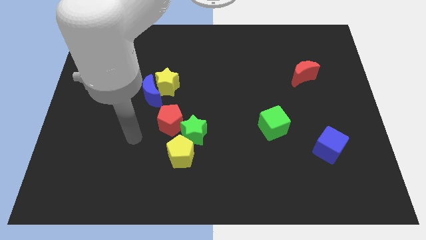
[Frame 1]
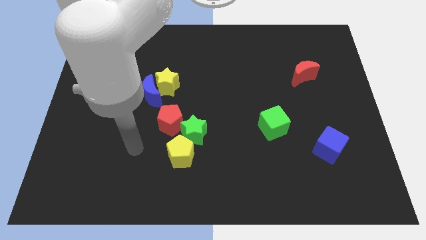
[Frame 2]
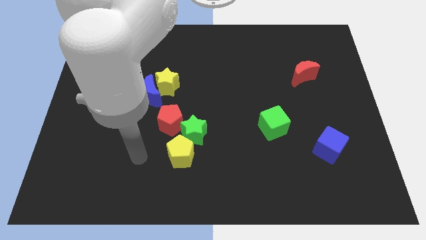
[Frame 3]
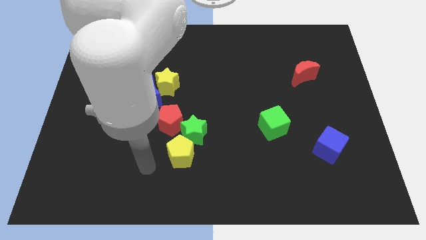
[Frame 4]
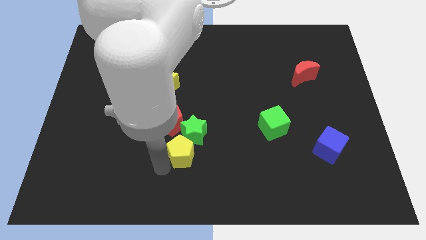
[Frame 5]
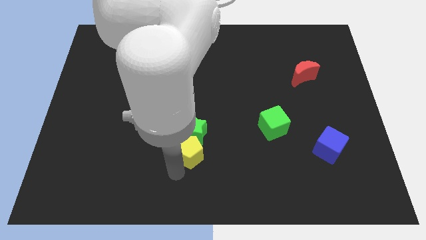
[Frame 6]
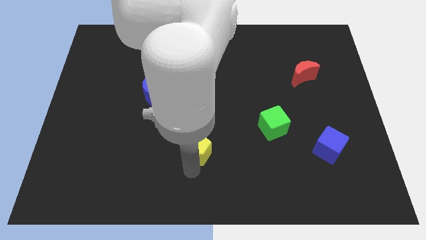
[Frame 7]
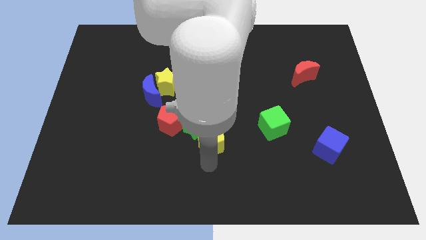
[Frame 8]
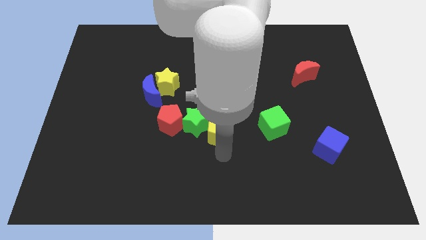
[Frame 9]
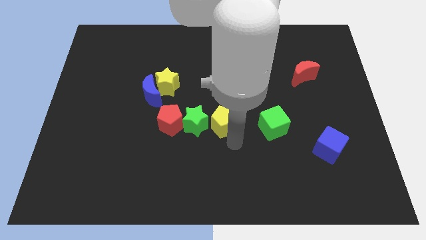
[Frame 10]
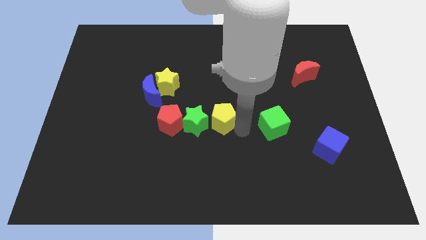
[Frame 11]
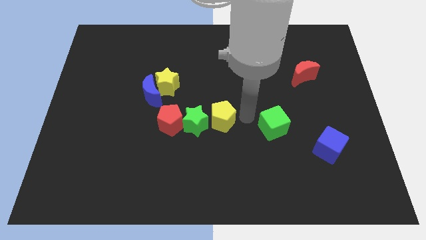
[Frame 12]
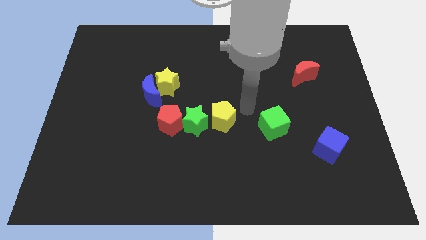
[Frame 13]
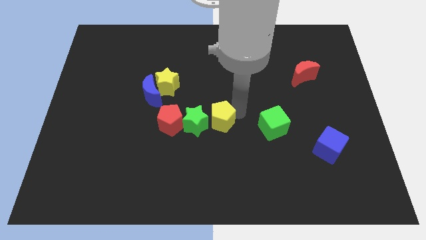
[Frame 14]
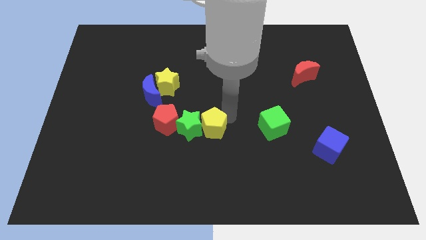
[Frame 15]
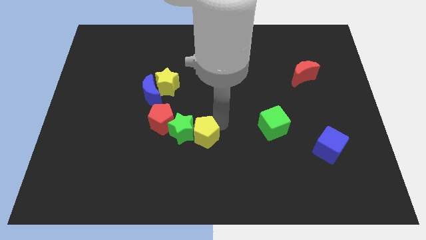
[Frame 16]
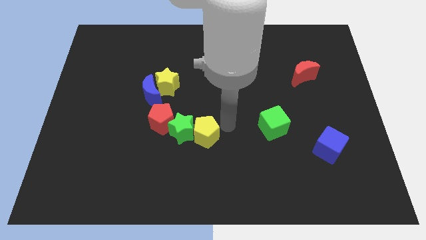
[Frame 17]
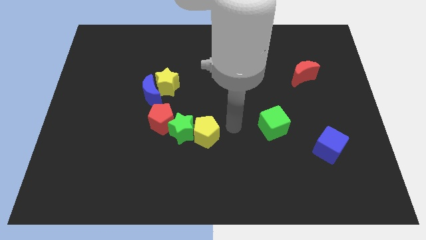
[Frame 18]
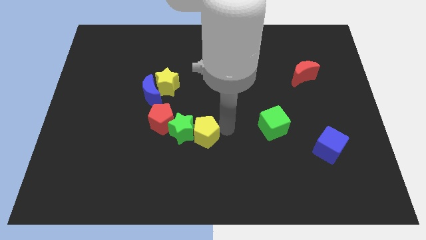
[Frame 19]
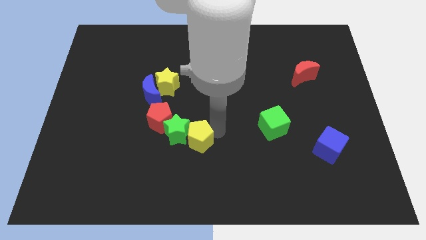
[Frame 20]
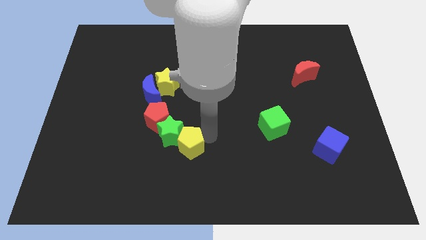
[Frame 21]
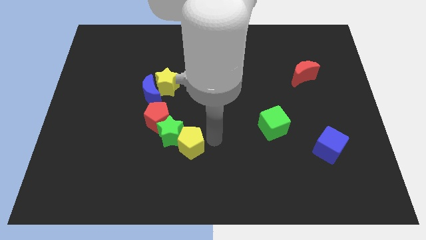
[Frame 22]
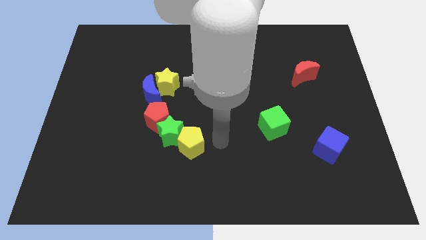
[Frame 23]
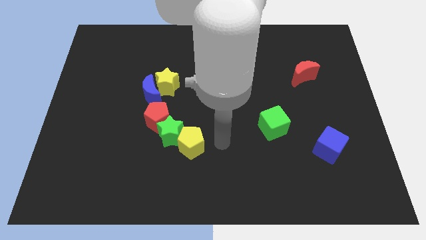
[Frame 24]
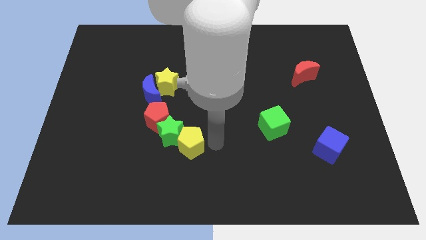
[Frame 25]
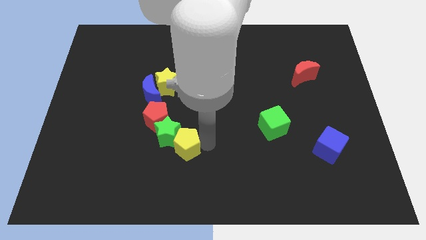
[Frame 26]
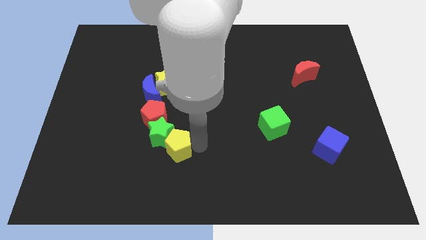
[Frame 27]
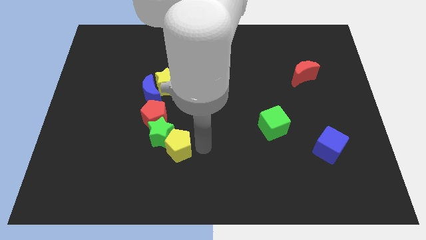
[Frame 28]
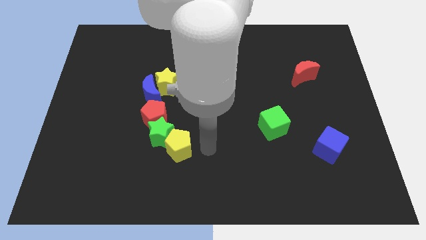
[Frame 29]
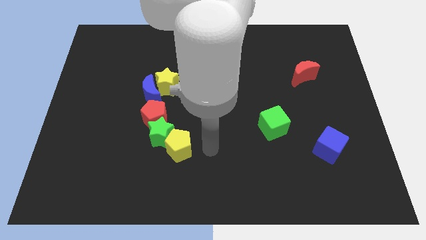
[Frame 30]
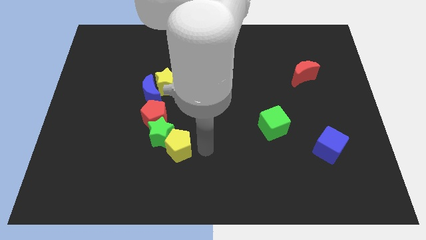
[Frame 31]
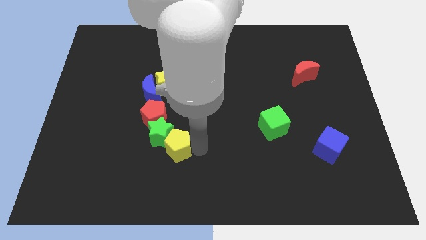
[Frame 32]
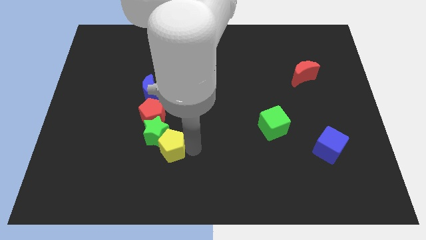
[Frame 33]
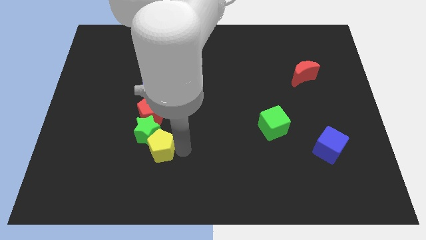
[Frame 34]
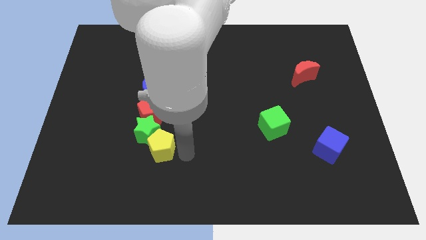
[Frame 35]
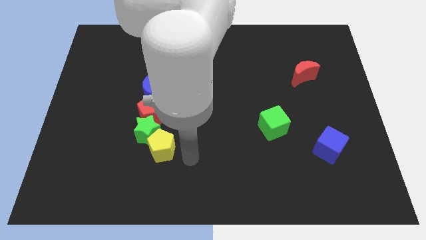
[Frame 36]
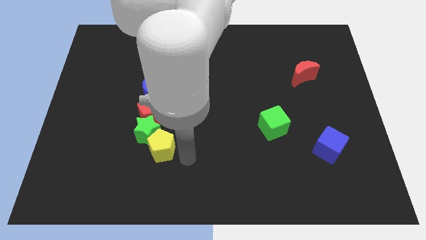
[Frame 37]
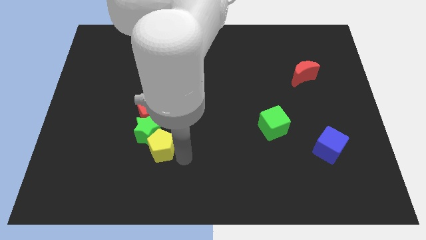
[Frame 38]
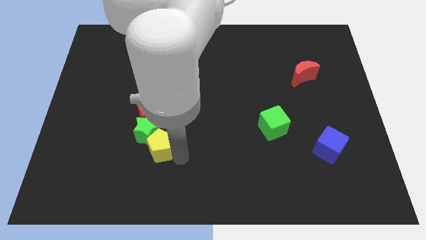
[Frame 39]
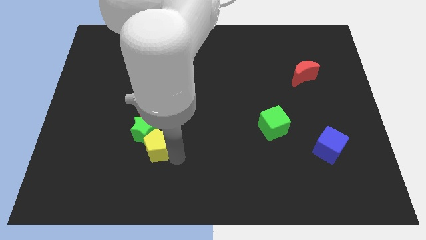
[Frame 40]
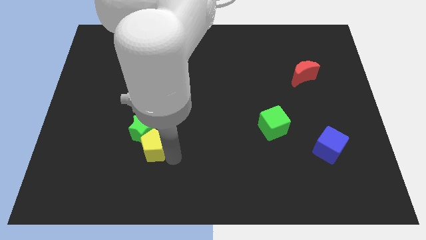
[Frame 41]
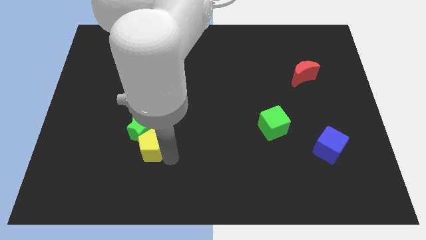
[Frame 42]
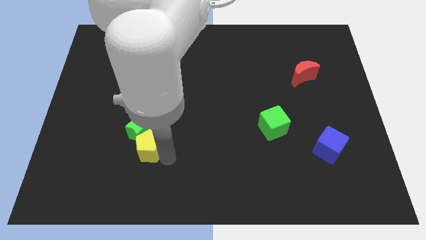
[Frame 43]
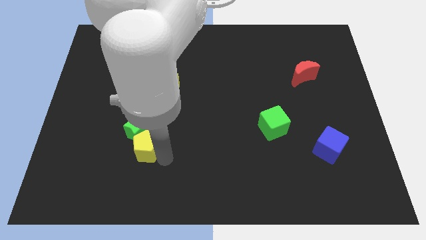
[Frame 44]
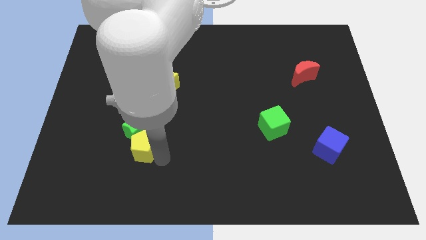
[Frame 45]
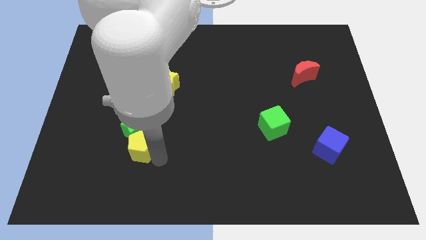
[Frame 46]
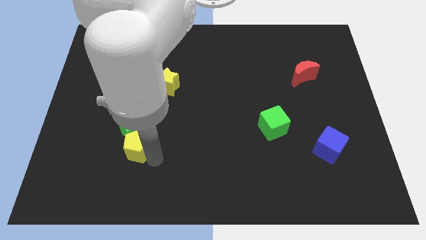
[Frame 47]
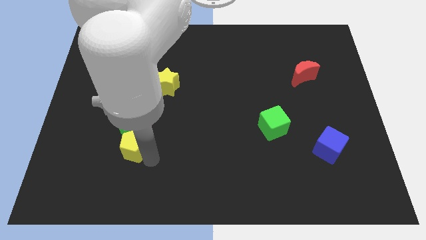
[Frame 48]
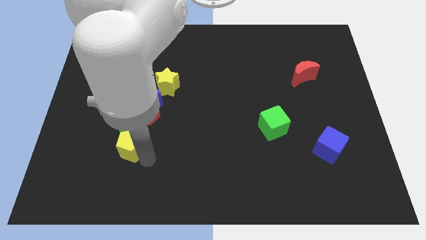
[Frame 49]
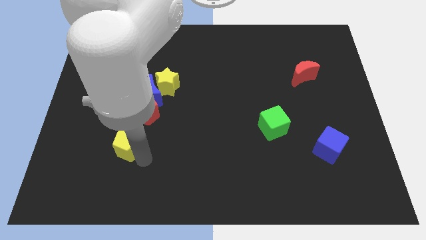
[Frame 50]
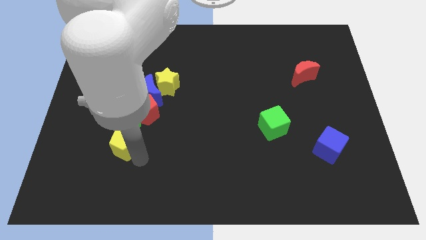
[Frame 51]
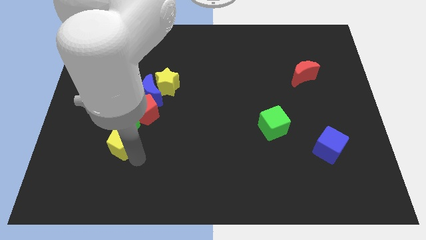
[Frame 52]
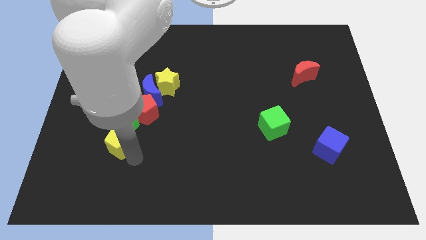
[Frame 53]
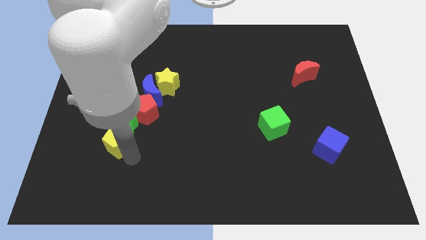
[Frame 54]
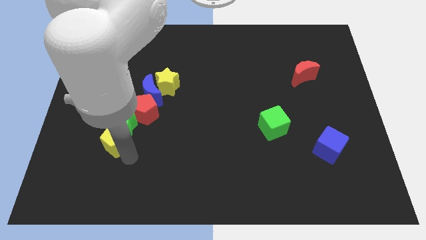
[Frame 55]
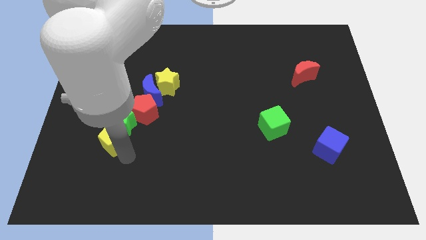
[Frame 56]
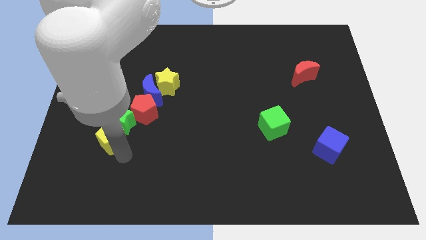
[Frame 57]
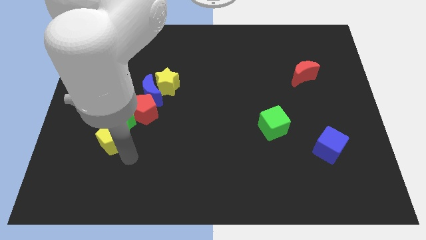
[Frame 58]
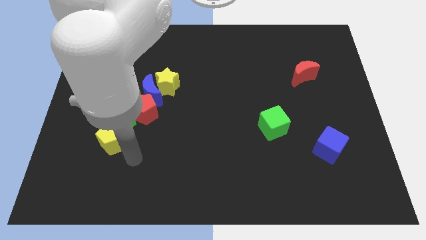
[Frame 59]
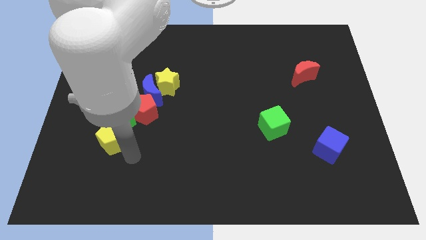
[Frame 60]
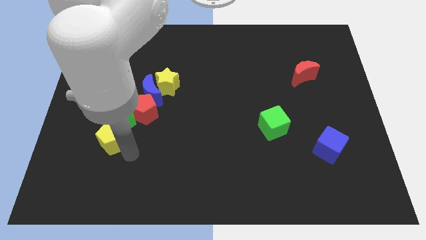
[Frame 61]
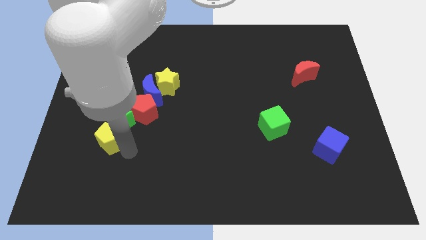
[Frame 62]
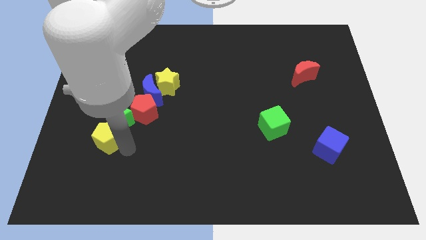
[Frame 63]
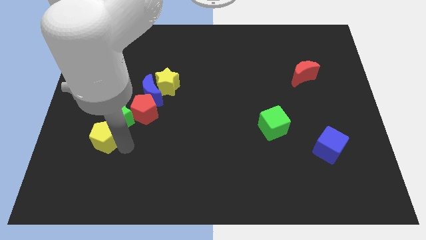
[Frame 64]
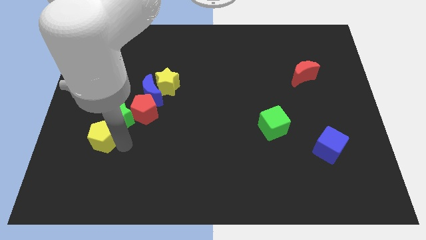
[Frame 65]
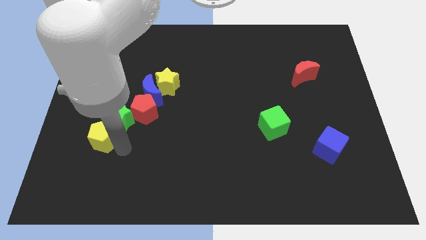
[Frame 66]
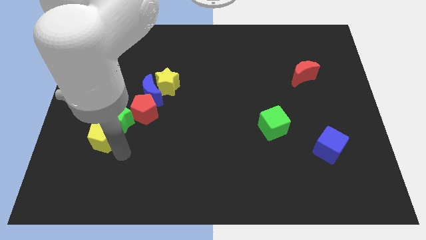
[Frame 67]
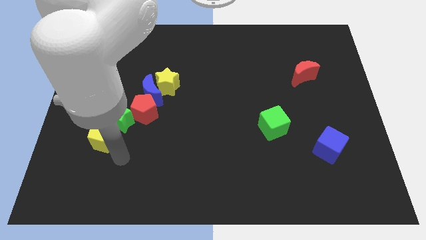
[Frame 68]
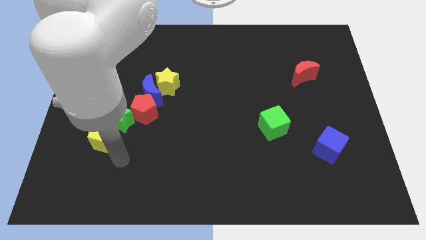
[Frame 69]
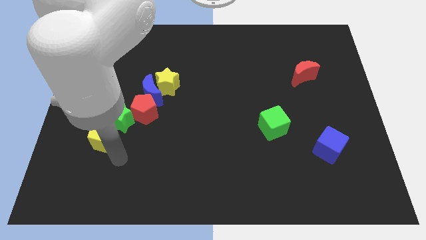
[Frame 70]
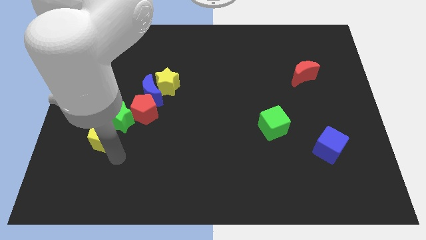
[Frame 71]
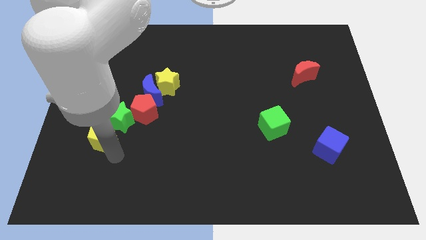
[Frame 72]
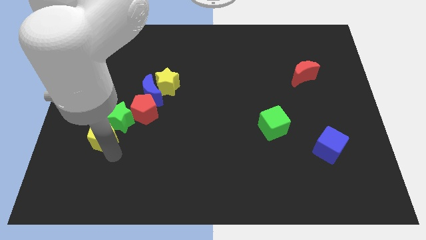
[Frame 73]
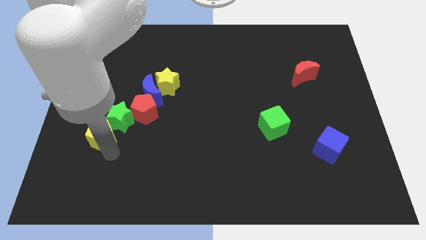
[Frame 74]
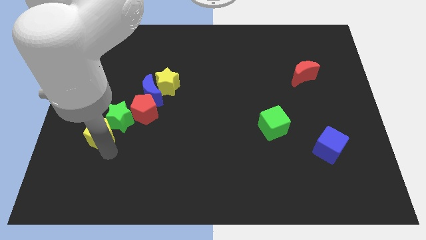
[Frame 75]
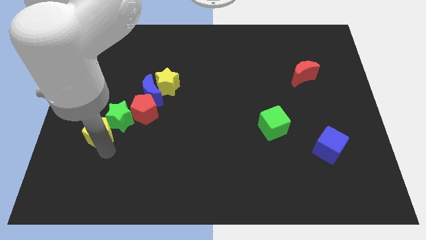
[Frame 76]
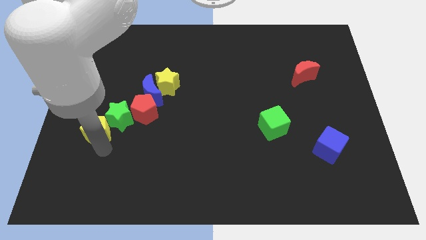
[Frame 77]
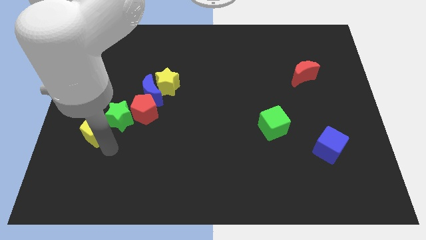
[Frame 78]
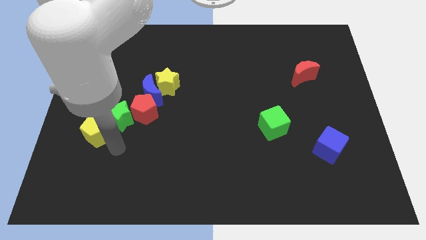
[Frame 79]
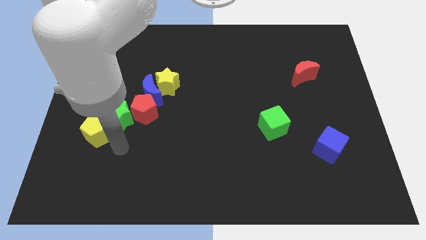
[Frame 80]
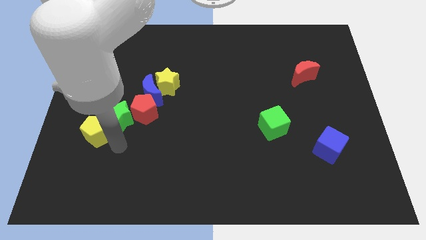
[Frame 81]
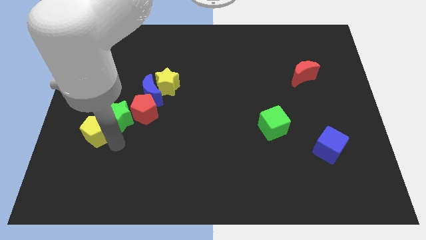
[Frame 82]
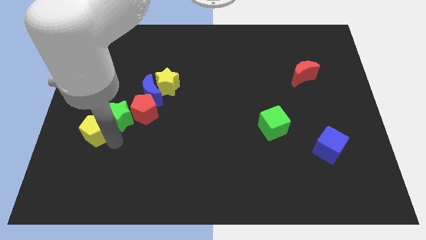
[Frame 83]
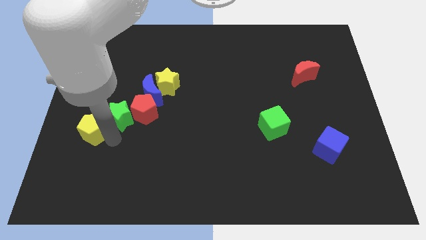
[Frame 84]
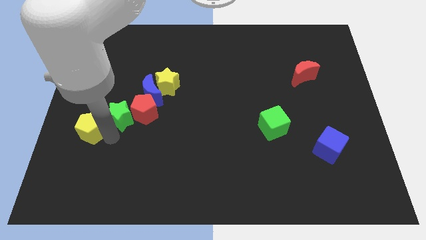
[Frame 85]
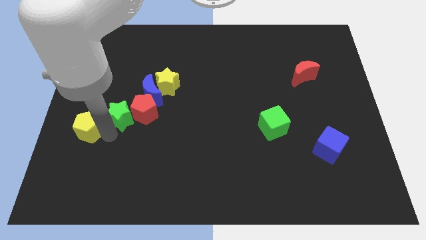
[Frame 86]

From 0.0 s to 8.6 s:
move the yellow pentagon to the center left
